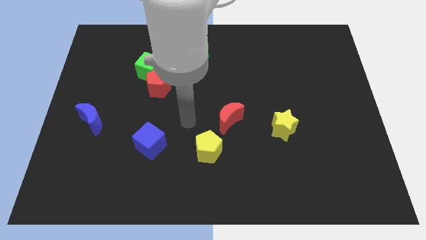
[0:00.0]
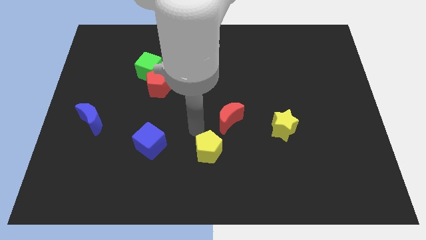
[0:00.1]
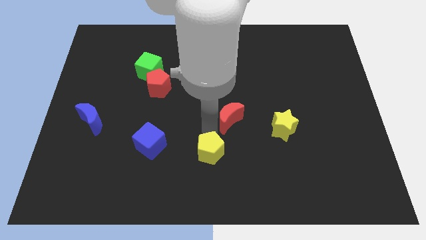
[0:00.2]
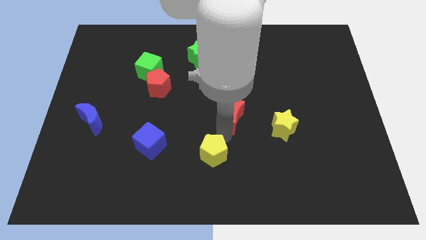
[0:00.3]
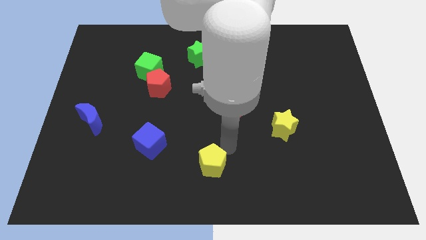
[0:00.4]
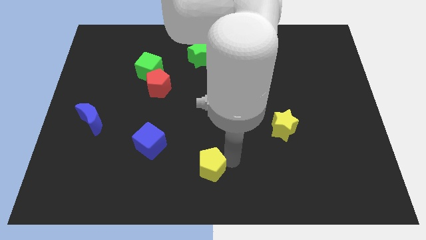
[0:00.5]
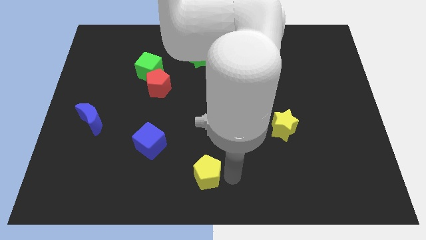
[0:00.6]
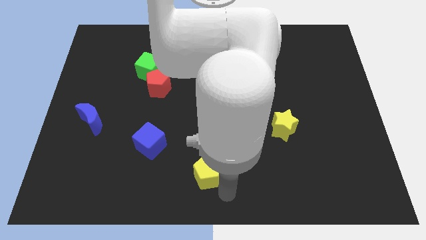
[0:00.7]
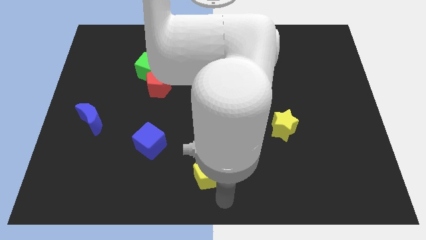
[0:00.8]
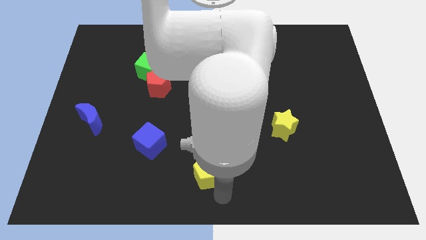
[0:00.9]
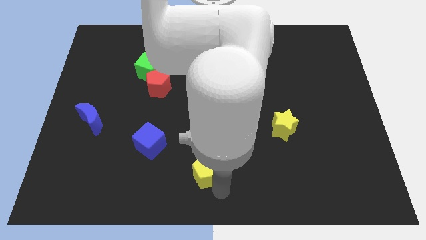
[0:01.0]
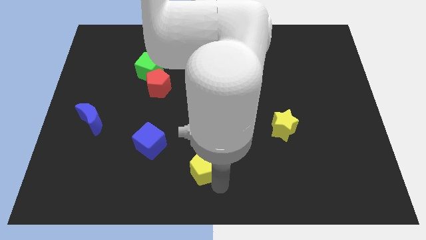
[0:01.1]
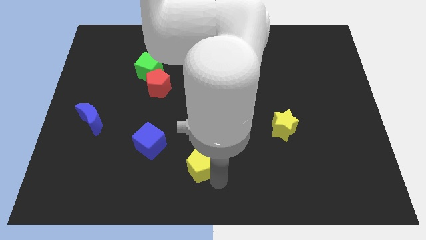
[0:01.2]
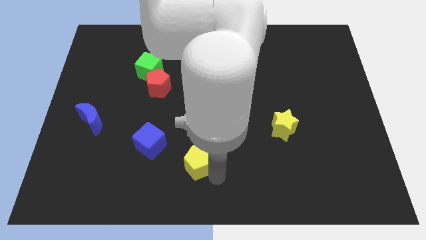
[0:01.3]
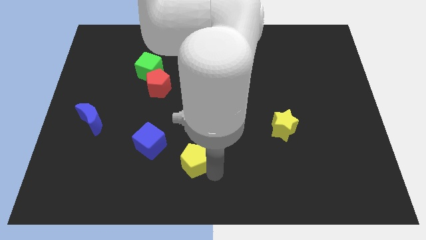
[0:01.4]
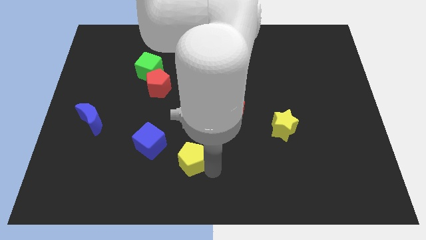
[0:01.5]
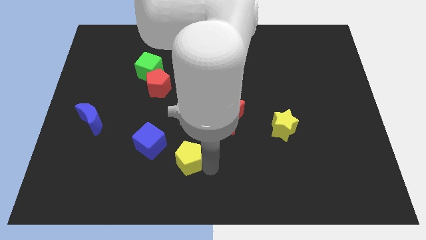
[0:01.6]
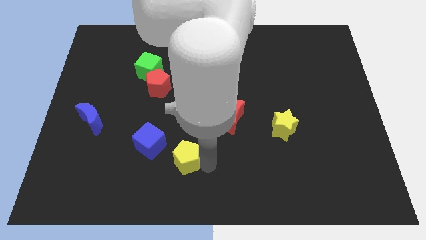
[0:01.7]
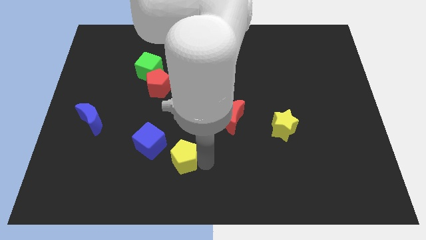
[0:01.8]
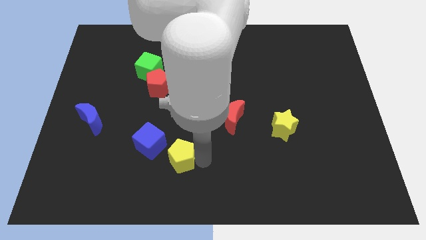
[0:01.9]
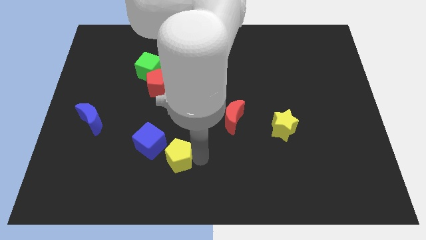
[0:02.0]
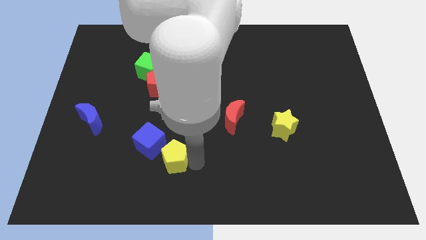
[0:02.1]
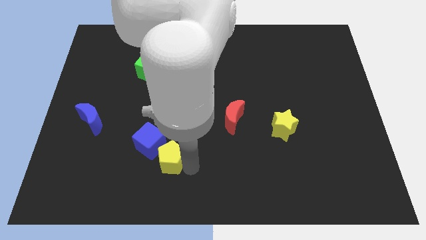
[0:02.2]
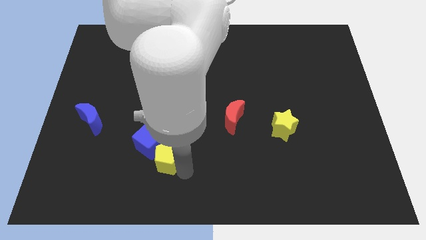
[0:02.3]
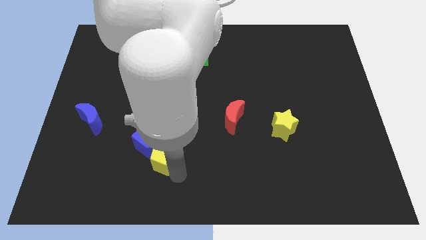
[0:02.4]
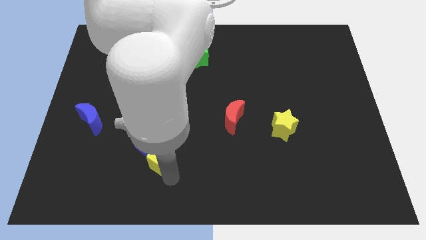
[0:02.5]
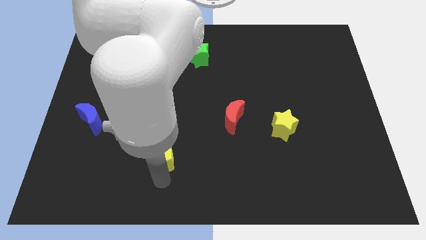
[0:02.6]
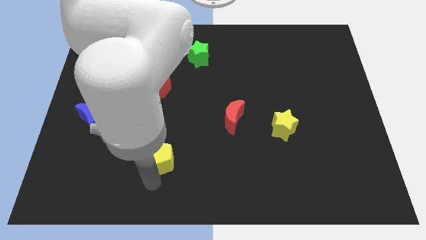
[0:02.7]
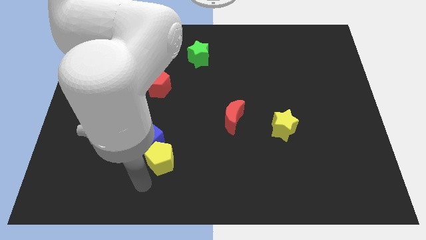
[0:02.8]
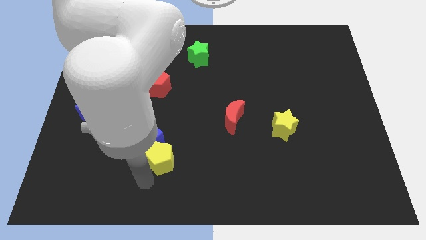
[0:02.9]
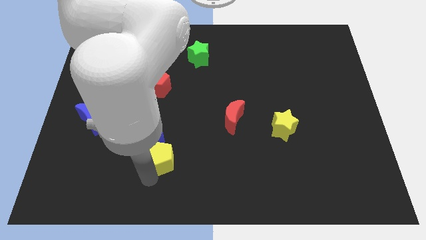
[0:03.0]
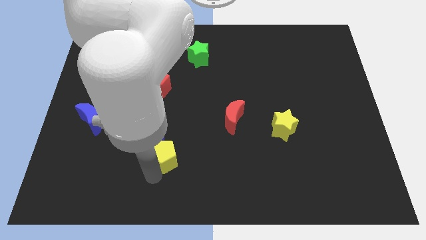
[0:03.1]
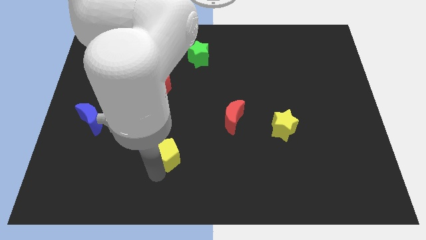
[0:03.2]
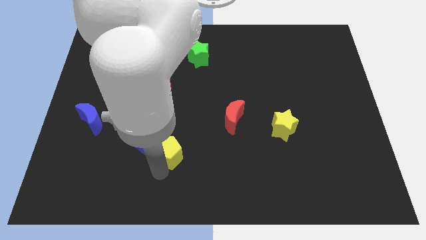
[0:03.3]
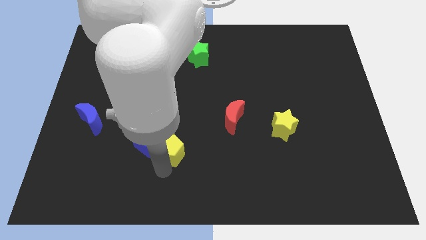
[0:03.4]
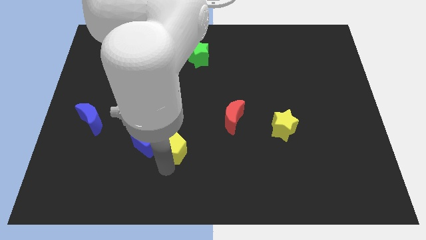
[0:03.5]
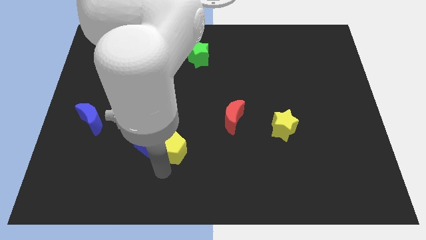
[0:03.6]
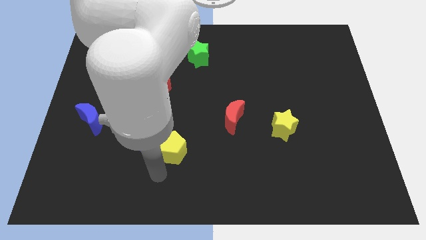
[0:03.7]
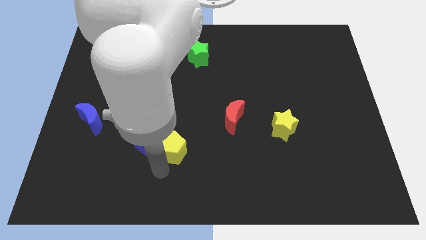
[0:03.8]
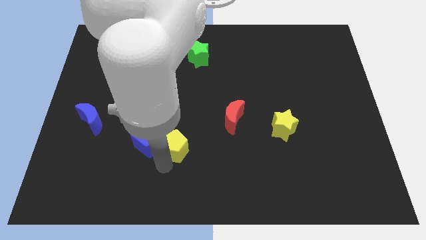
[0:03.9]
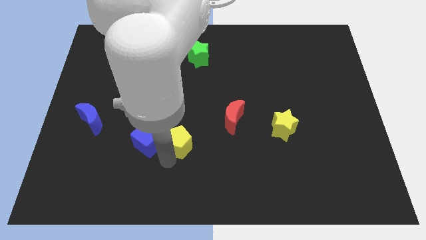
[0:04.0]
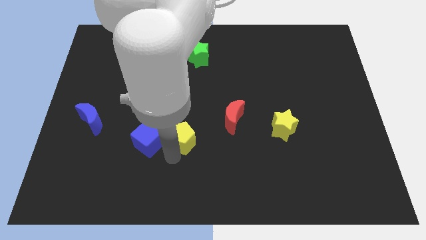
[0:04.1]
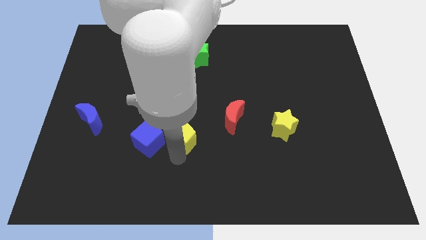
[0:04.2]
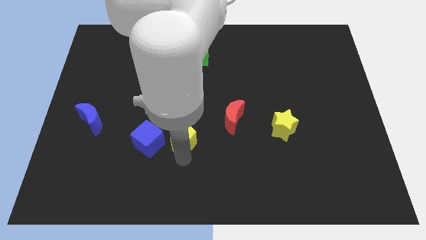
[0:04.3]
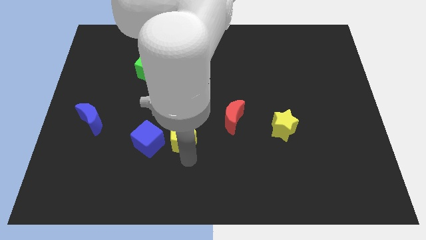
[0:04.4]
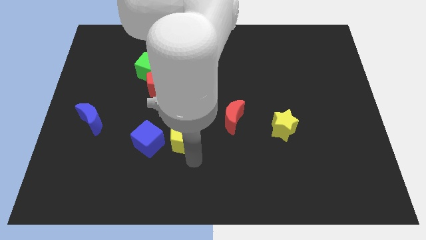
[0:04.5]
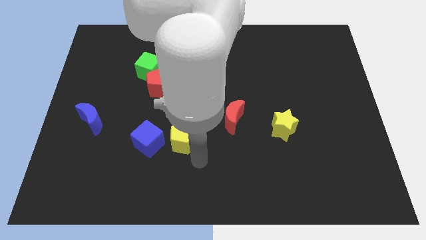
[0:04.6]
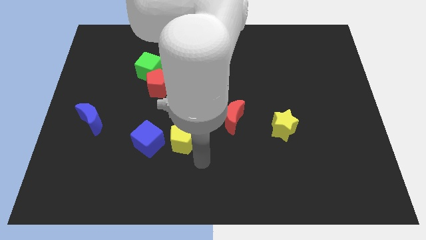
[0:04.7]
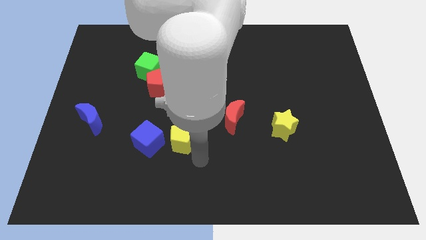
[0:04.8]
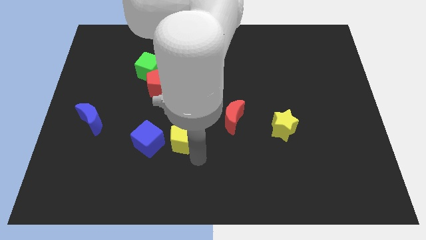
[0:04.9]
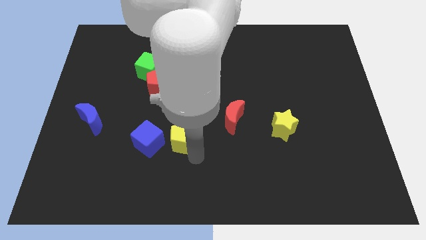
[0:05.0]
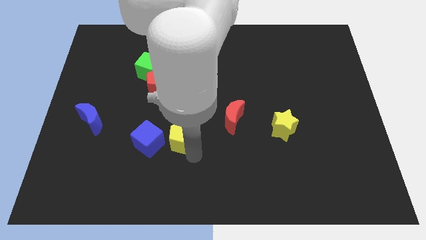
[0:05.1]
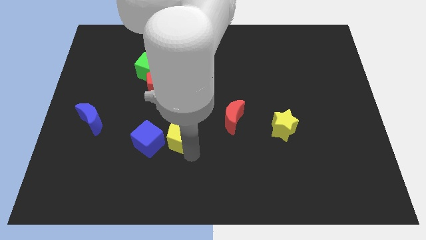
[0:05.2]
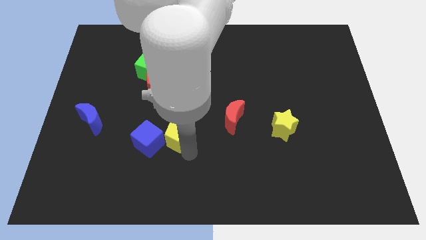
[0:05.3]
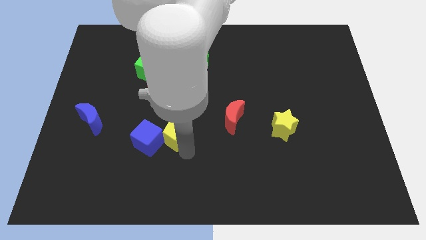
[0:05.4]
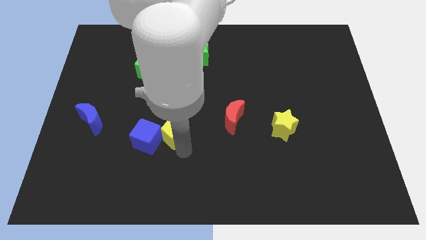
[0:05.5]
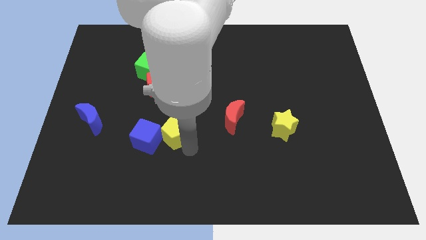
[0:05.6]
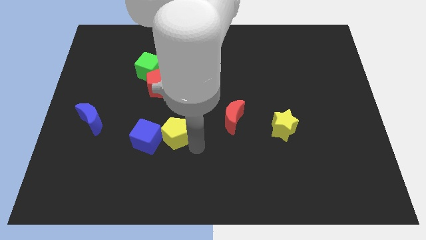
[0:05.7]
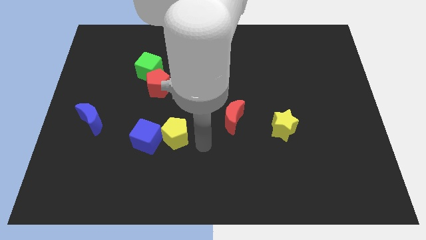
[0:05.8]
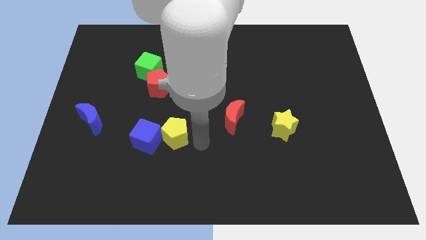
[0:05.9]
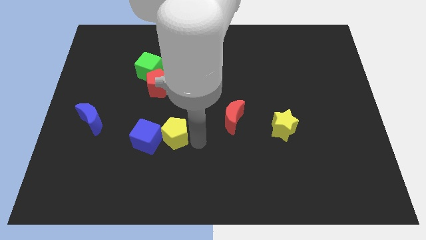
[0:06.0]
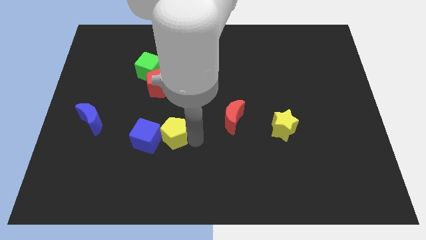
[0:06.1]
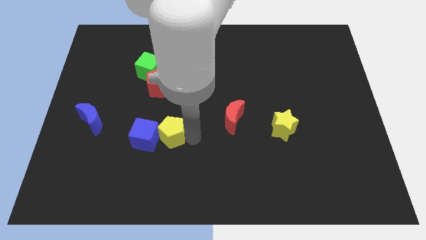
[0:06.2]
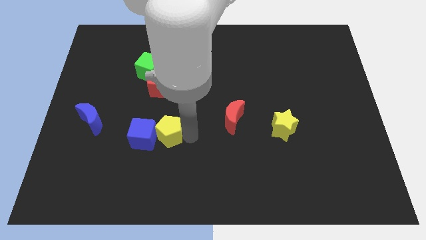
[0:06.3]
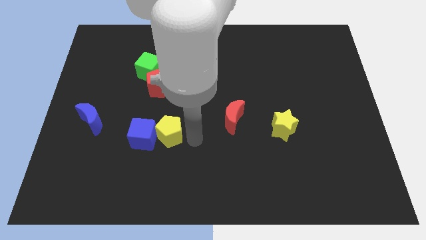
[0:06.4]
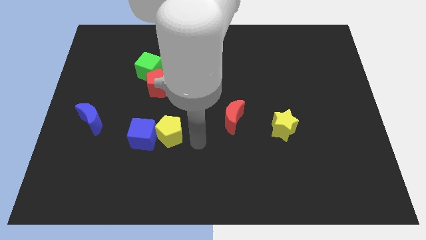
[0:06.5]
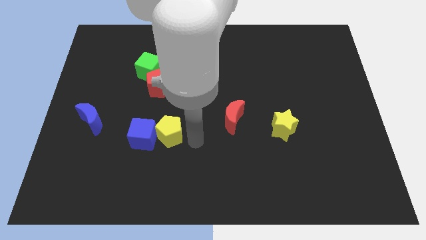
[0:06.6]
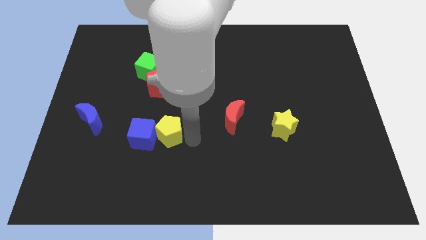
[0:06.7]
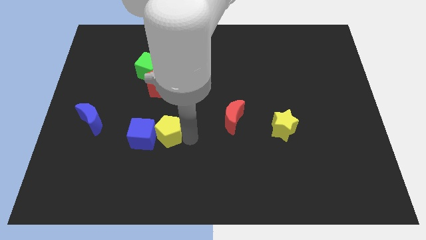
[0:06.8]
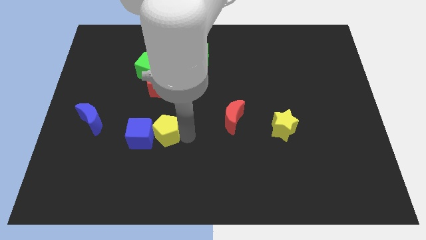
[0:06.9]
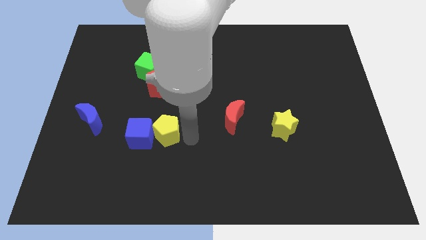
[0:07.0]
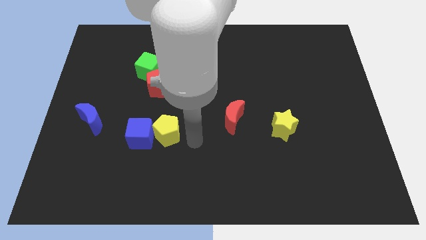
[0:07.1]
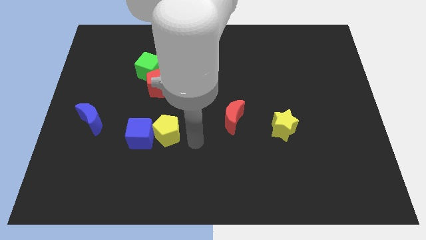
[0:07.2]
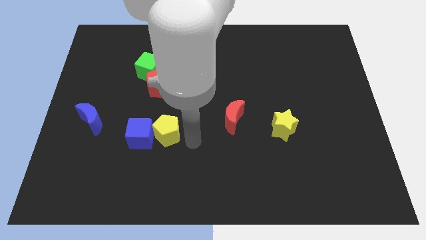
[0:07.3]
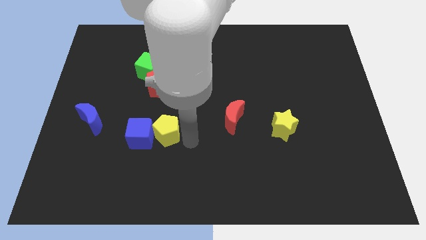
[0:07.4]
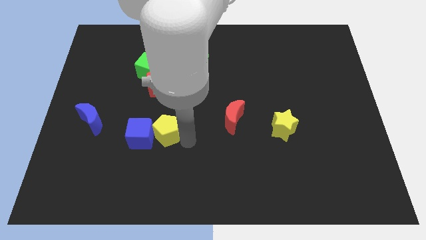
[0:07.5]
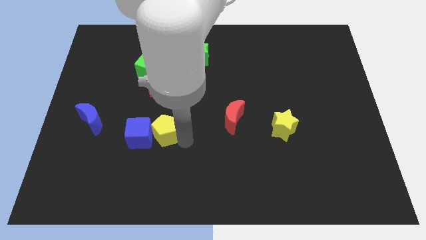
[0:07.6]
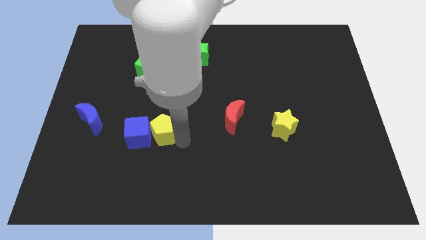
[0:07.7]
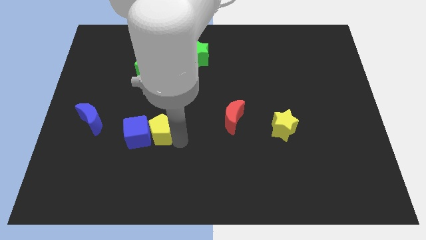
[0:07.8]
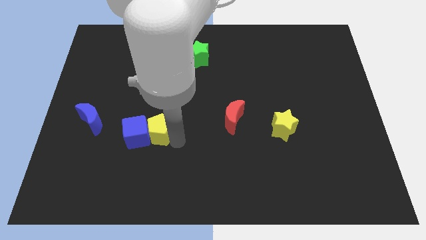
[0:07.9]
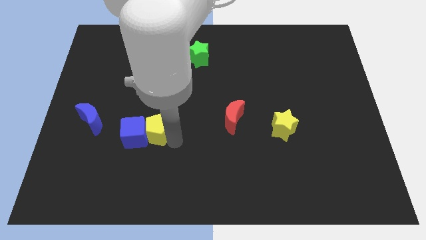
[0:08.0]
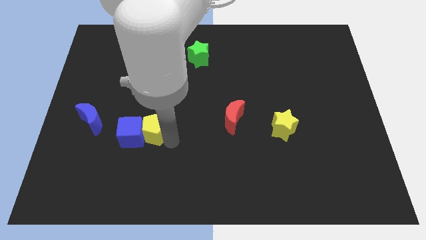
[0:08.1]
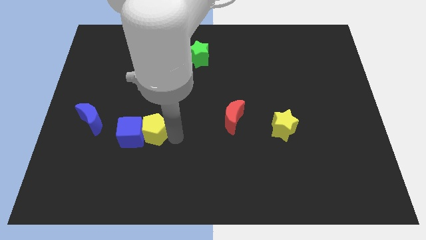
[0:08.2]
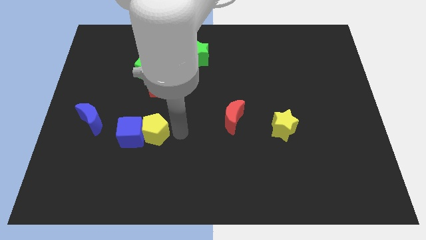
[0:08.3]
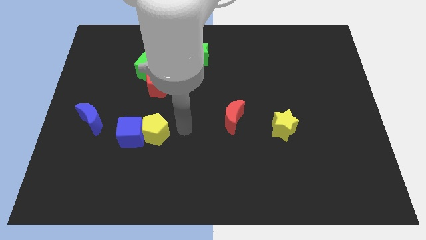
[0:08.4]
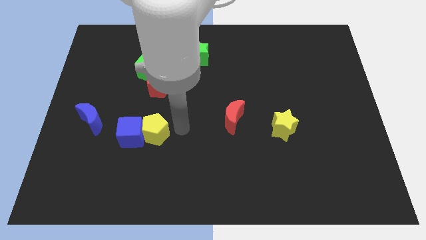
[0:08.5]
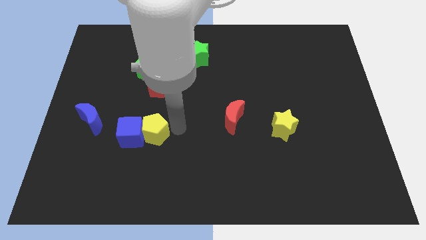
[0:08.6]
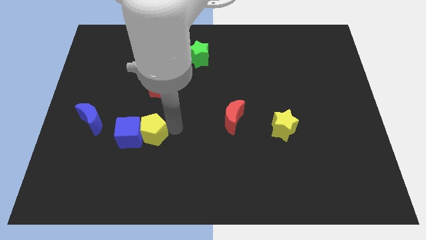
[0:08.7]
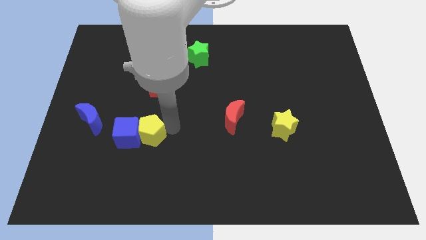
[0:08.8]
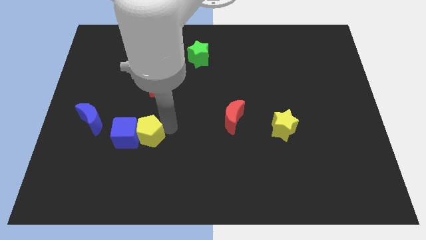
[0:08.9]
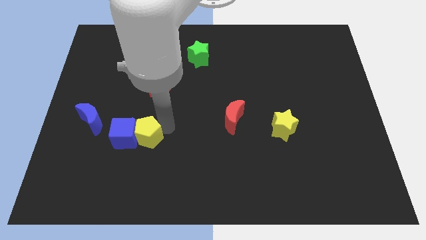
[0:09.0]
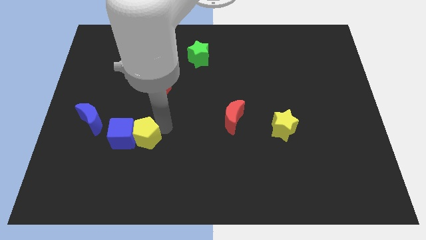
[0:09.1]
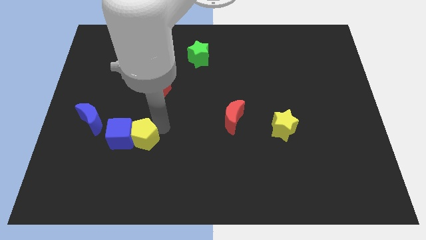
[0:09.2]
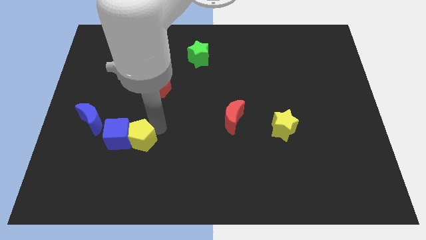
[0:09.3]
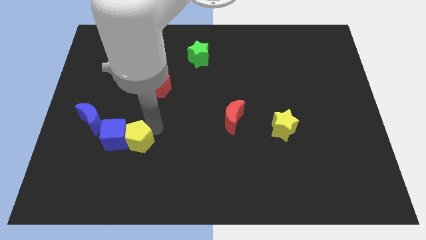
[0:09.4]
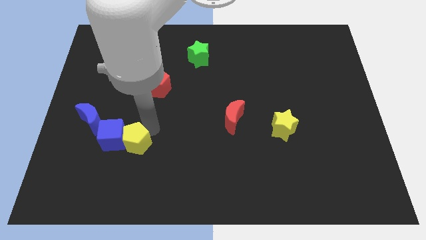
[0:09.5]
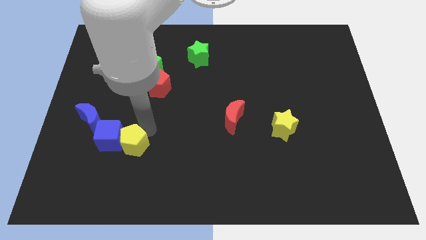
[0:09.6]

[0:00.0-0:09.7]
push the yellow pentagon to the bottom right side of the blue moon
